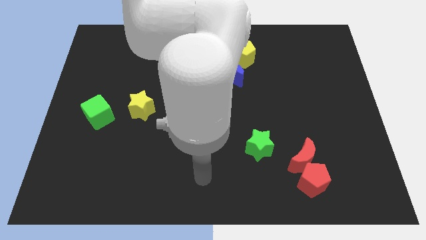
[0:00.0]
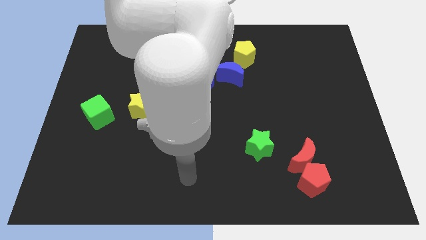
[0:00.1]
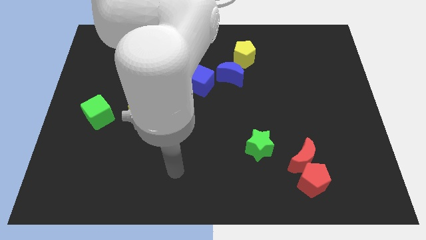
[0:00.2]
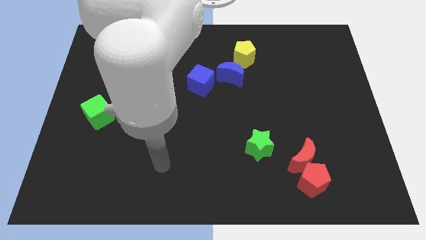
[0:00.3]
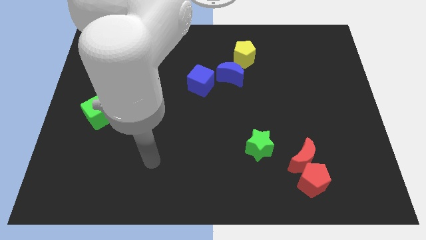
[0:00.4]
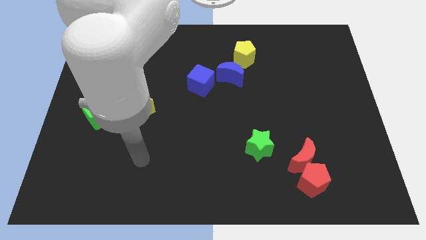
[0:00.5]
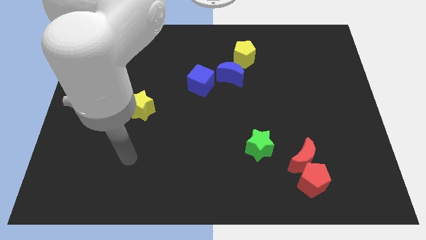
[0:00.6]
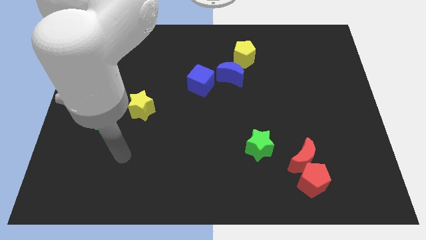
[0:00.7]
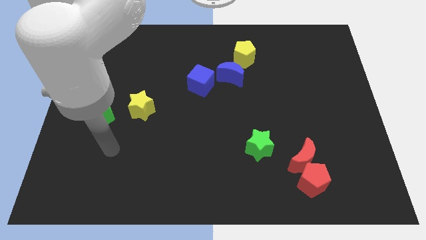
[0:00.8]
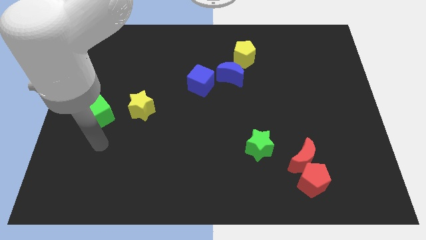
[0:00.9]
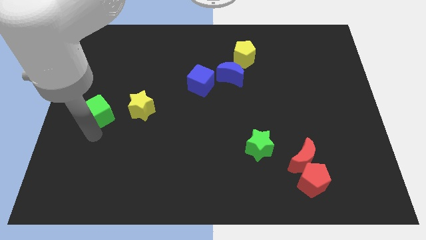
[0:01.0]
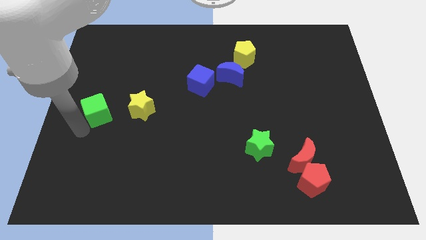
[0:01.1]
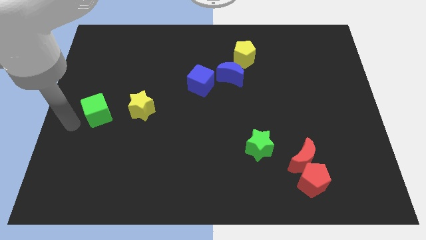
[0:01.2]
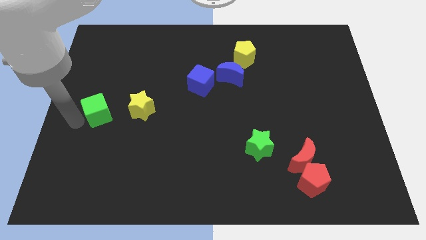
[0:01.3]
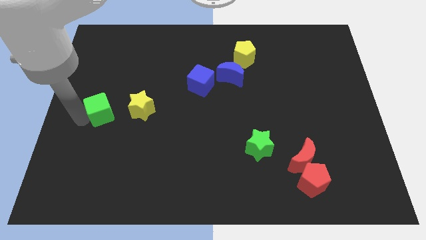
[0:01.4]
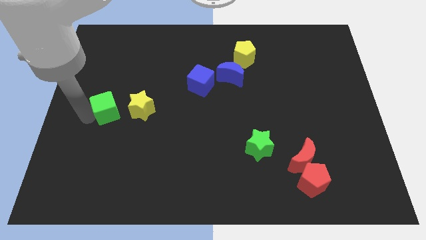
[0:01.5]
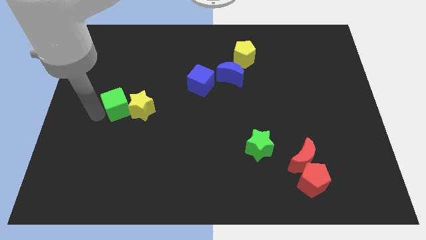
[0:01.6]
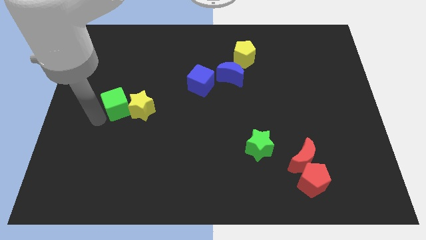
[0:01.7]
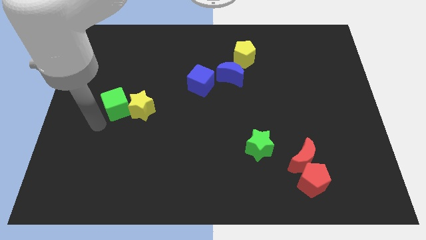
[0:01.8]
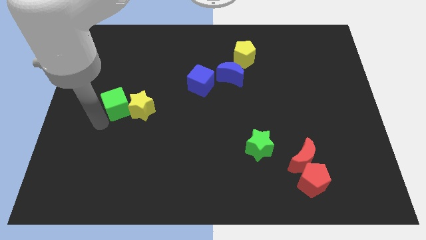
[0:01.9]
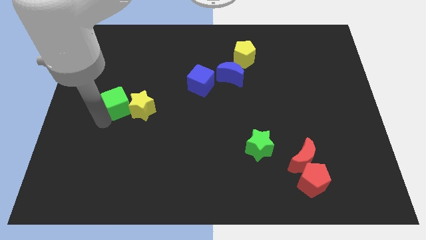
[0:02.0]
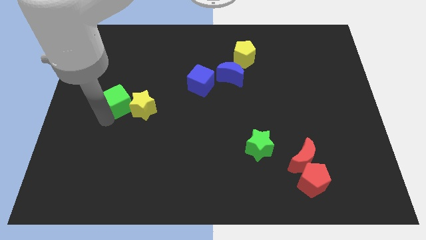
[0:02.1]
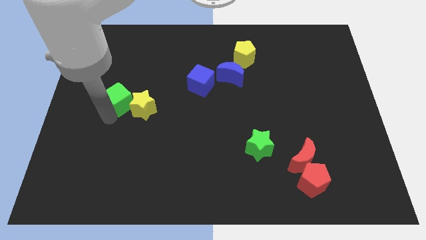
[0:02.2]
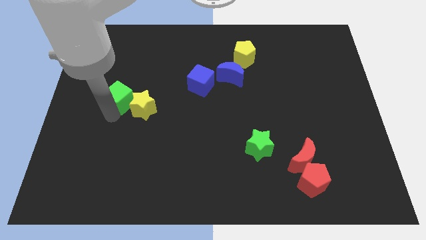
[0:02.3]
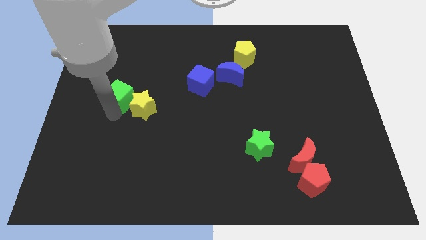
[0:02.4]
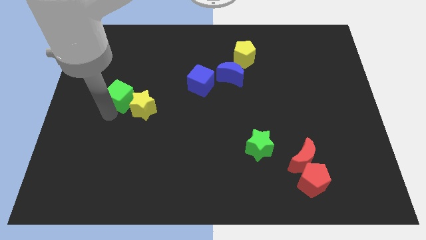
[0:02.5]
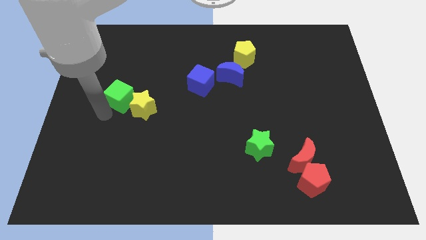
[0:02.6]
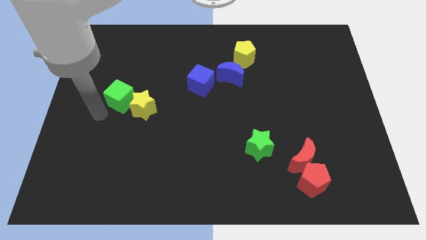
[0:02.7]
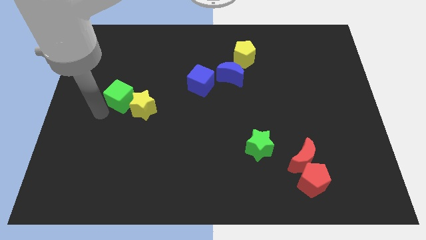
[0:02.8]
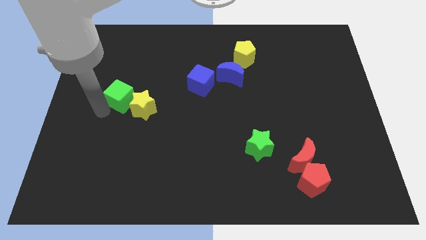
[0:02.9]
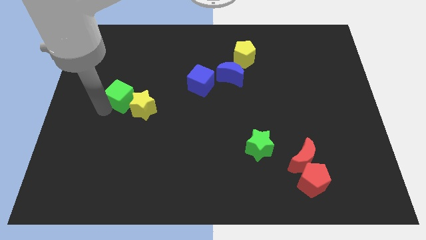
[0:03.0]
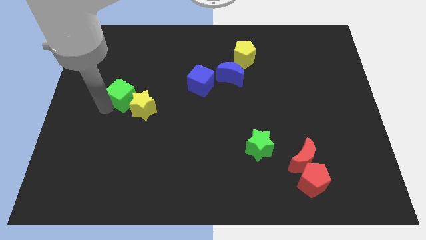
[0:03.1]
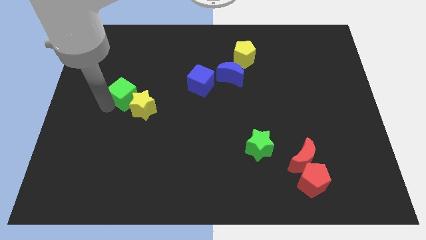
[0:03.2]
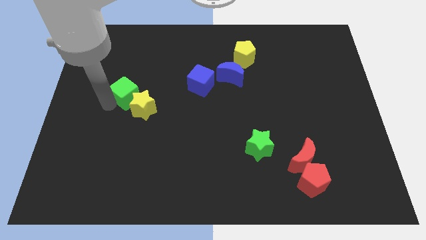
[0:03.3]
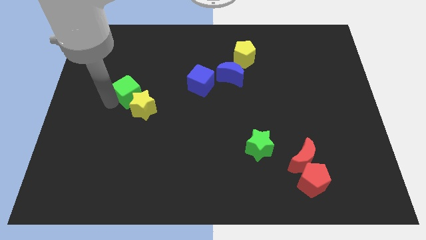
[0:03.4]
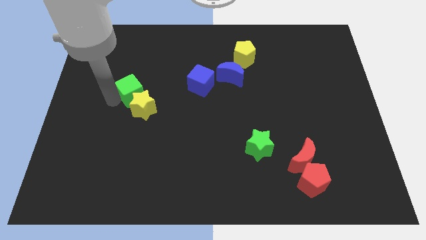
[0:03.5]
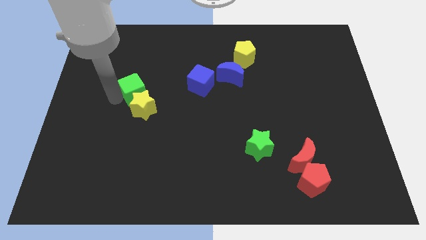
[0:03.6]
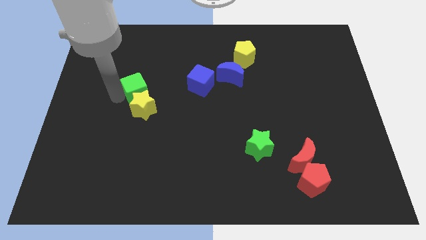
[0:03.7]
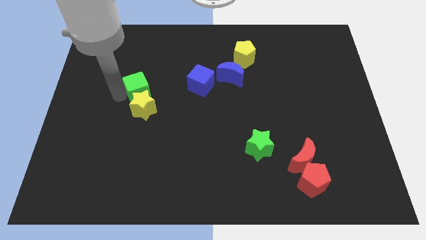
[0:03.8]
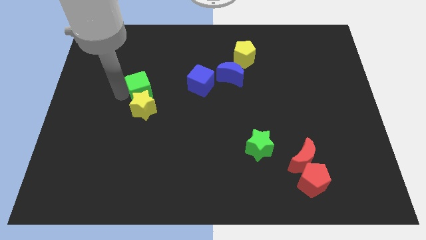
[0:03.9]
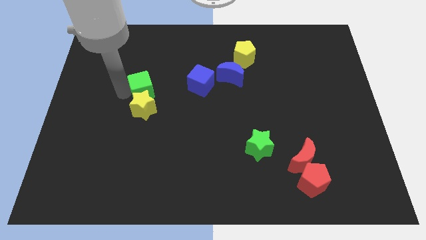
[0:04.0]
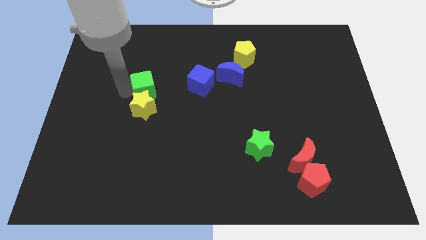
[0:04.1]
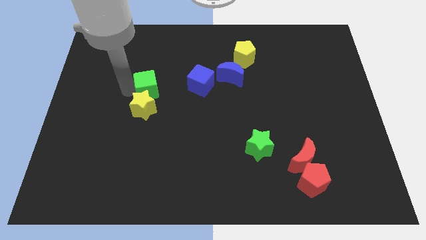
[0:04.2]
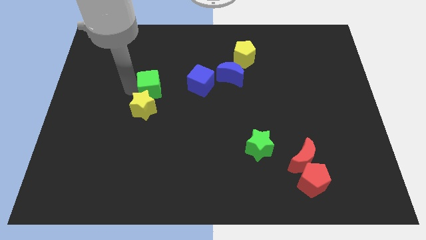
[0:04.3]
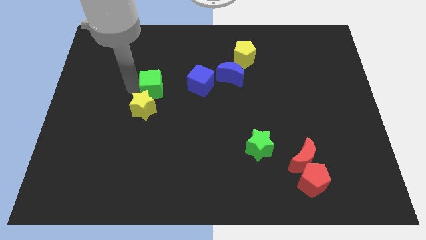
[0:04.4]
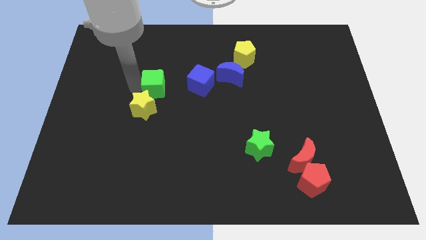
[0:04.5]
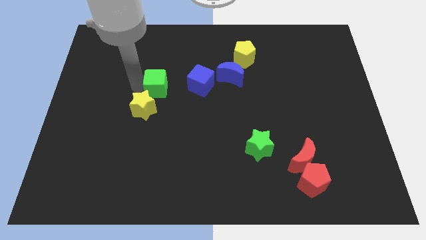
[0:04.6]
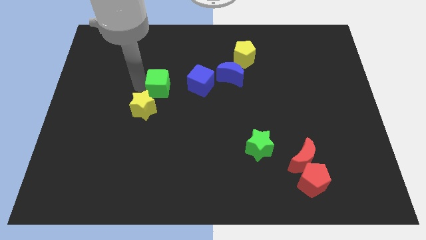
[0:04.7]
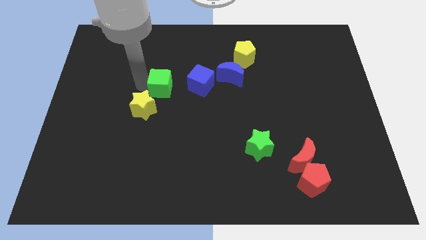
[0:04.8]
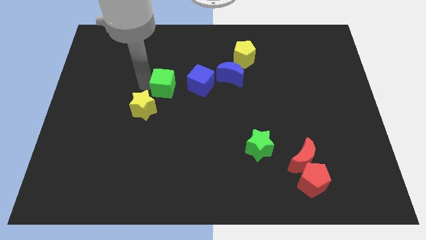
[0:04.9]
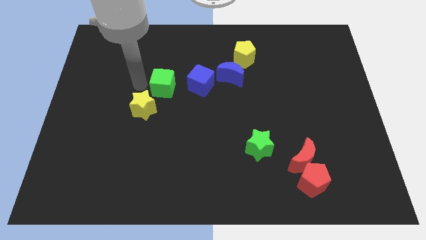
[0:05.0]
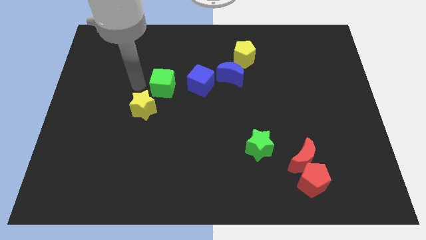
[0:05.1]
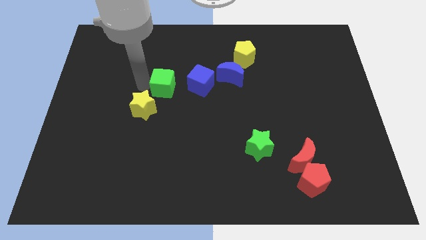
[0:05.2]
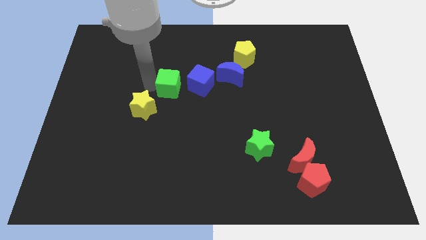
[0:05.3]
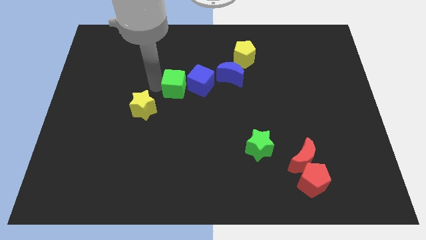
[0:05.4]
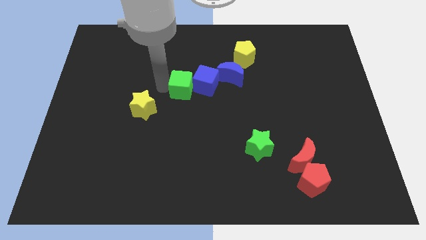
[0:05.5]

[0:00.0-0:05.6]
slide the green cube next to the blue cube

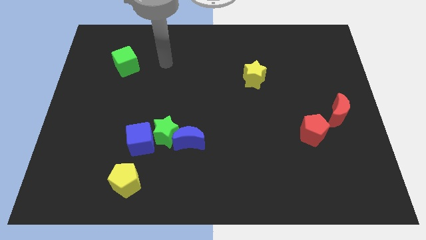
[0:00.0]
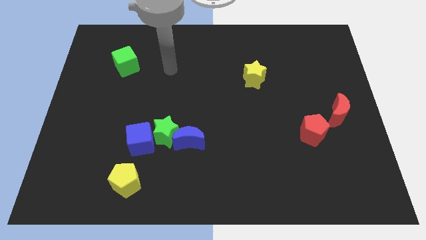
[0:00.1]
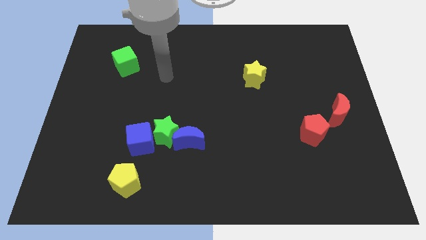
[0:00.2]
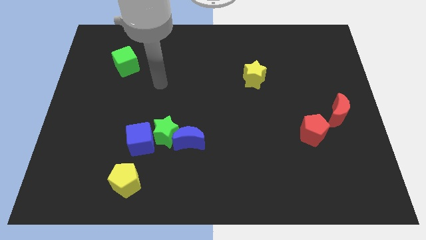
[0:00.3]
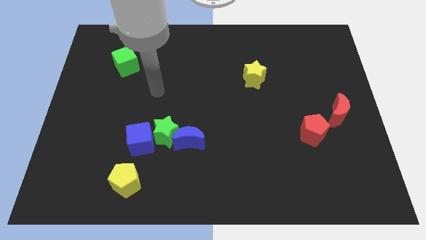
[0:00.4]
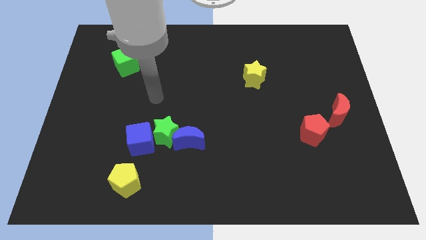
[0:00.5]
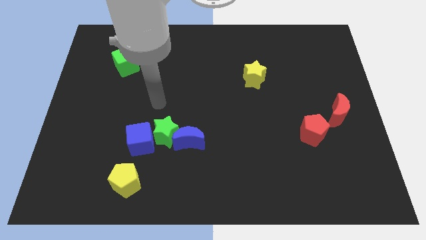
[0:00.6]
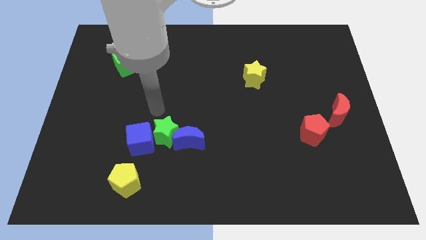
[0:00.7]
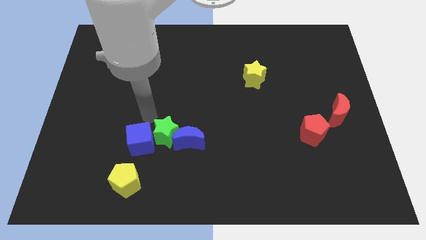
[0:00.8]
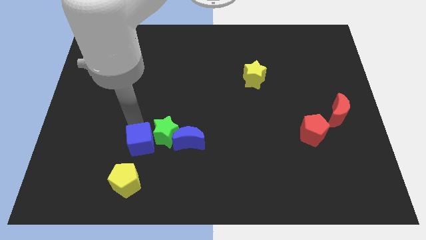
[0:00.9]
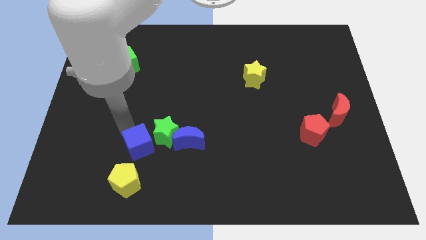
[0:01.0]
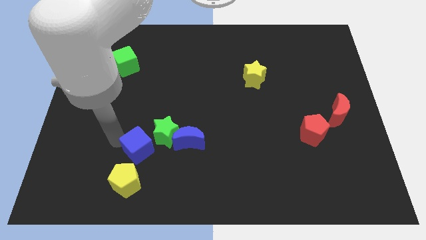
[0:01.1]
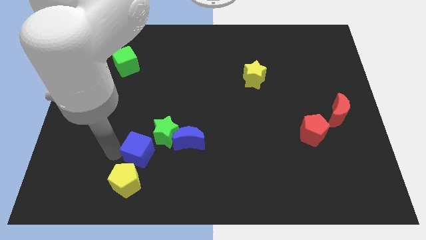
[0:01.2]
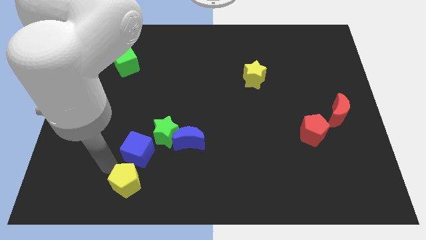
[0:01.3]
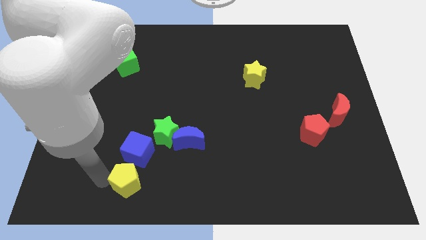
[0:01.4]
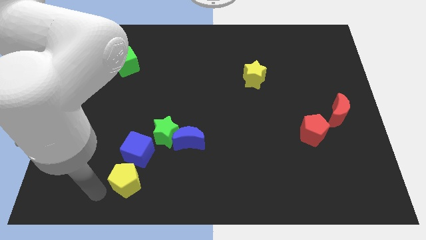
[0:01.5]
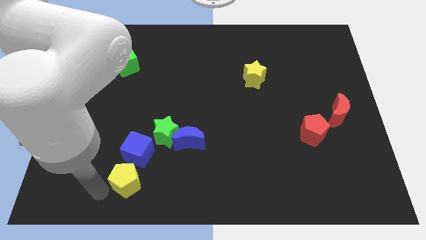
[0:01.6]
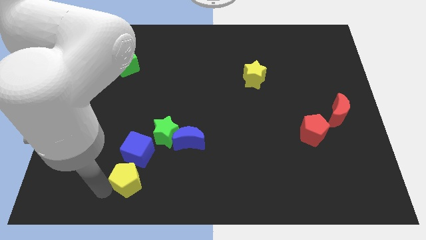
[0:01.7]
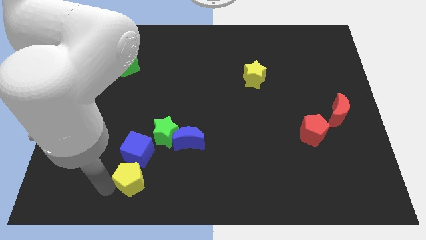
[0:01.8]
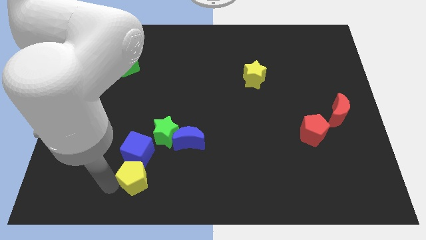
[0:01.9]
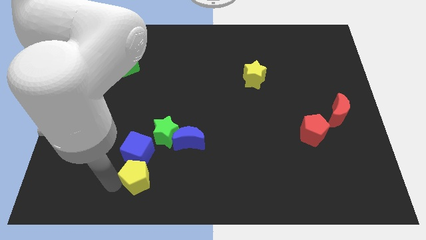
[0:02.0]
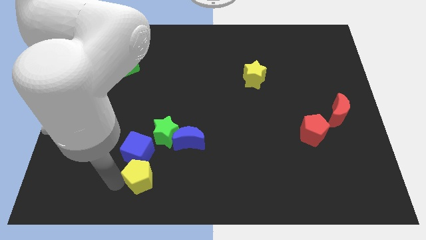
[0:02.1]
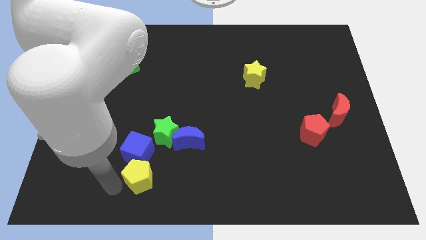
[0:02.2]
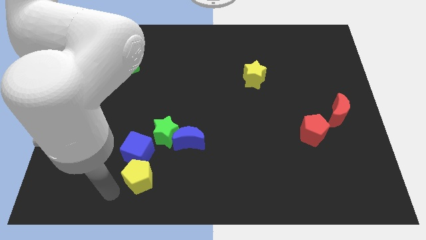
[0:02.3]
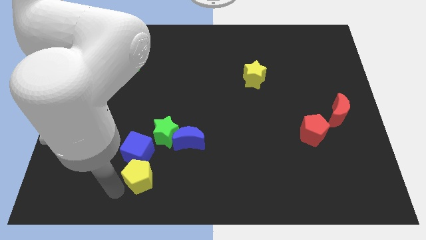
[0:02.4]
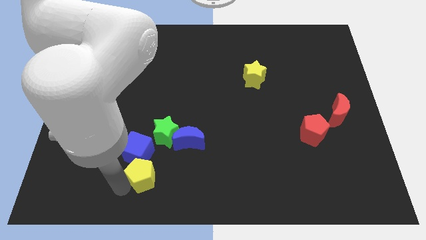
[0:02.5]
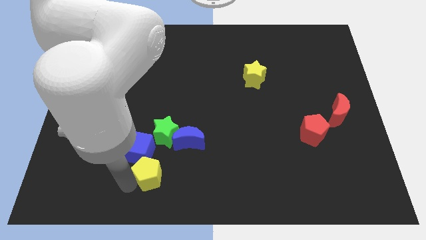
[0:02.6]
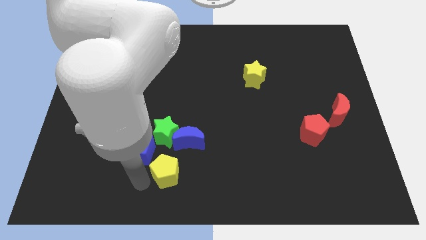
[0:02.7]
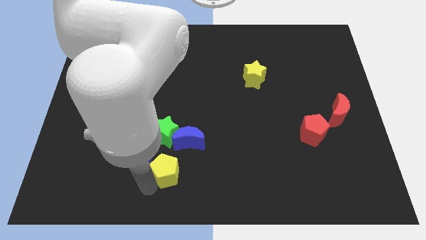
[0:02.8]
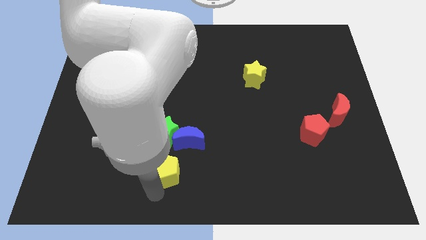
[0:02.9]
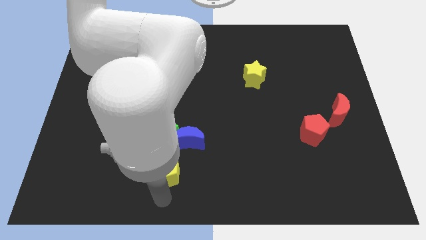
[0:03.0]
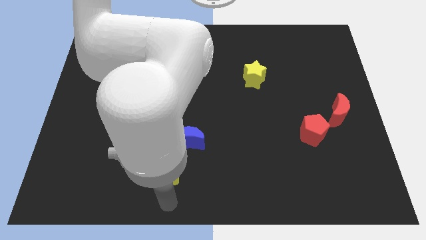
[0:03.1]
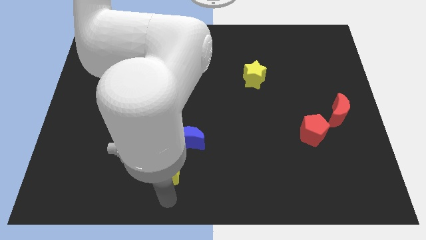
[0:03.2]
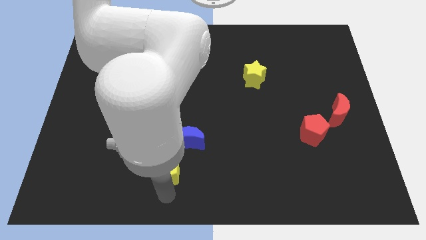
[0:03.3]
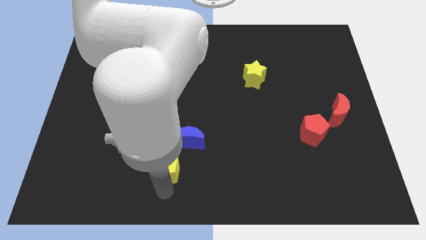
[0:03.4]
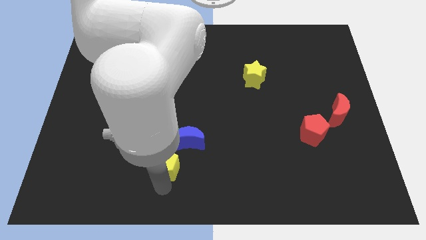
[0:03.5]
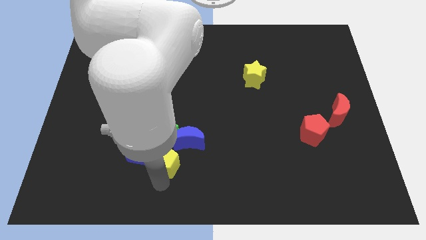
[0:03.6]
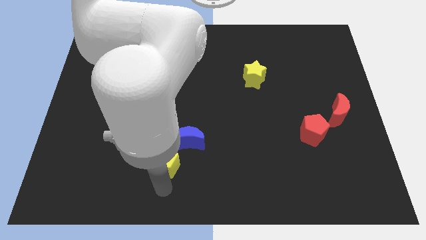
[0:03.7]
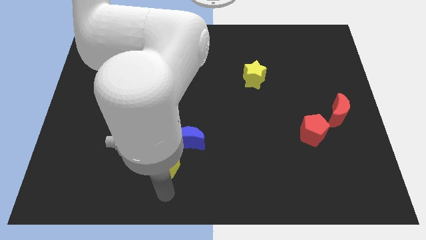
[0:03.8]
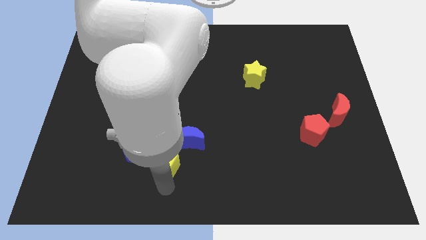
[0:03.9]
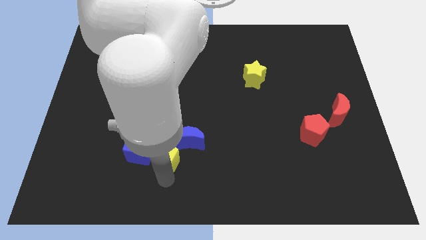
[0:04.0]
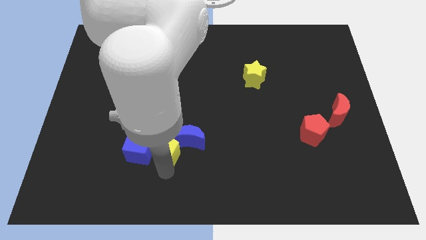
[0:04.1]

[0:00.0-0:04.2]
put the yellow pentagon towards the green star
